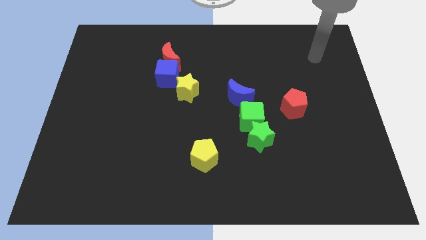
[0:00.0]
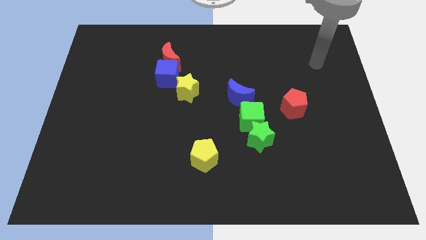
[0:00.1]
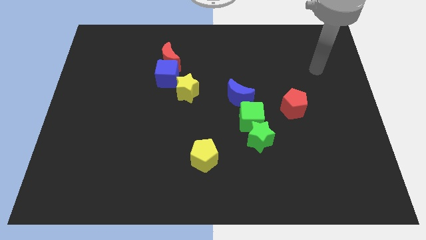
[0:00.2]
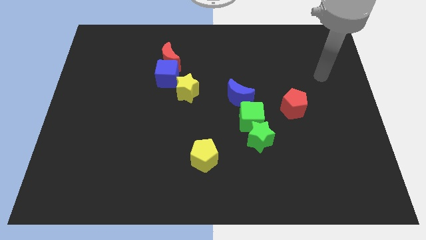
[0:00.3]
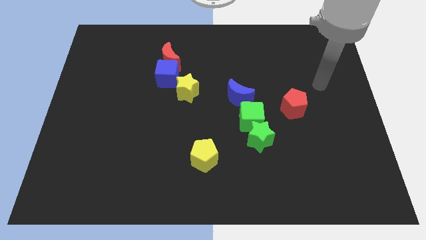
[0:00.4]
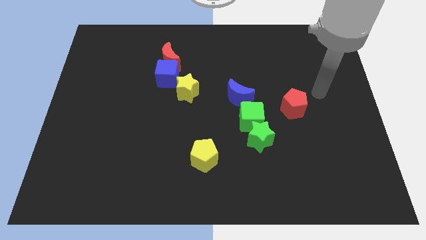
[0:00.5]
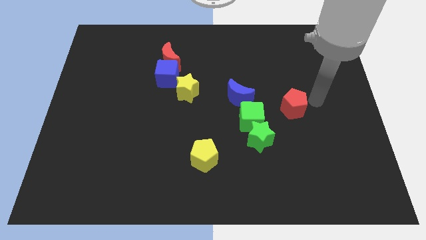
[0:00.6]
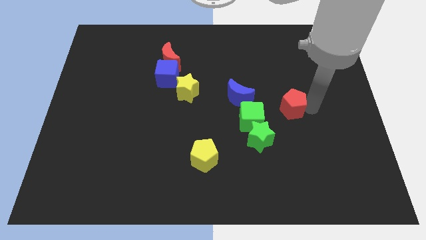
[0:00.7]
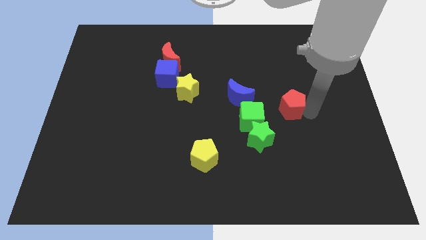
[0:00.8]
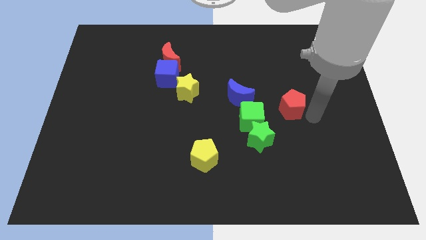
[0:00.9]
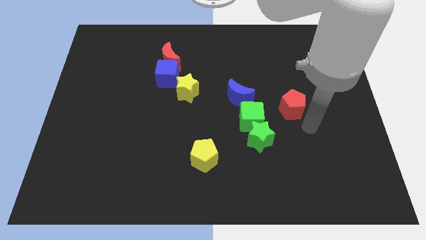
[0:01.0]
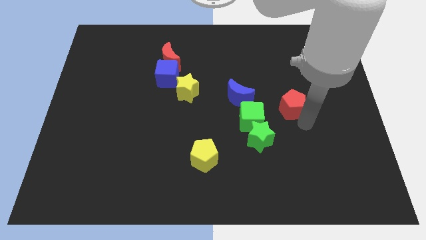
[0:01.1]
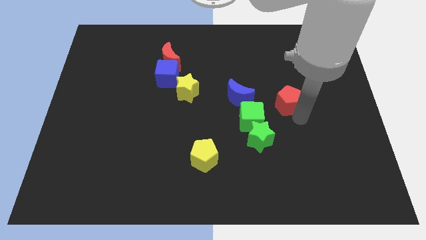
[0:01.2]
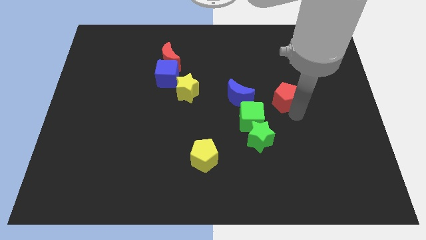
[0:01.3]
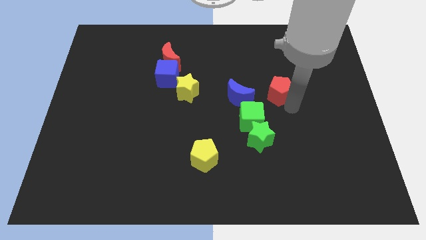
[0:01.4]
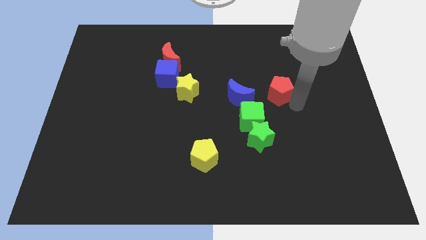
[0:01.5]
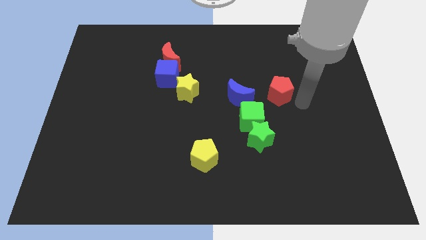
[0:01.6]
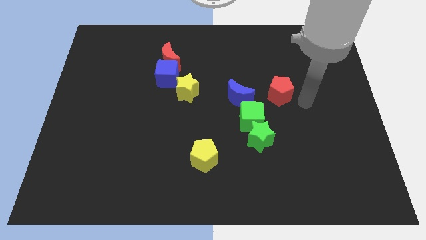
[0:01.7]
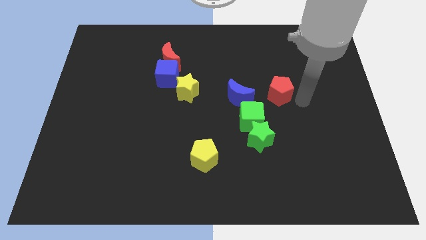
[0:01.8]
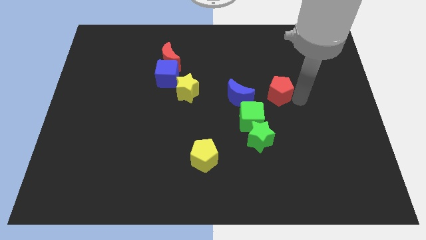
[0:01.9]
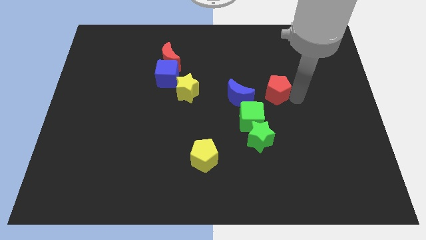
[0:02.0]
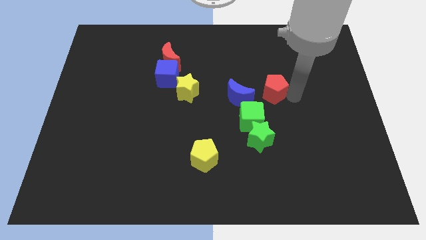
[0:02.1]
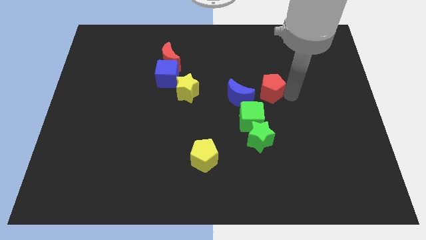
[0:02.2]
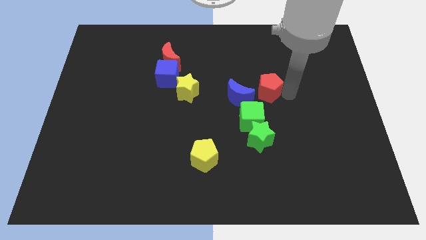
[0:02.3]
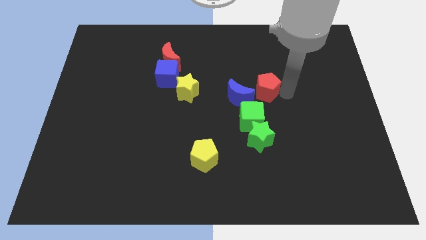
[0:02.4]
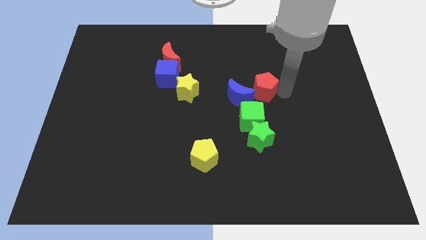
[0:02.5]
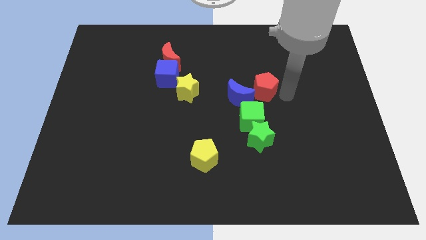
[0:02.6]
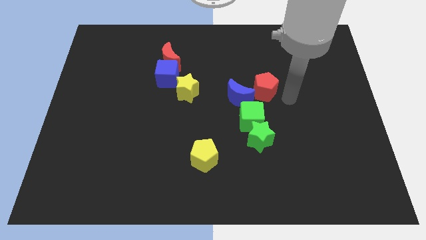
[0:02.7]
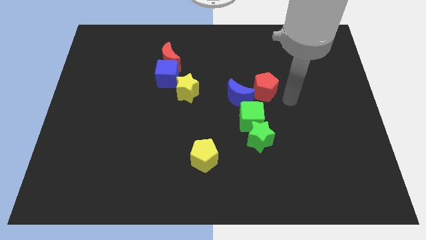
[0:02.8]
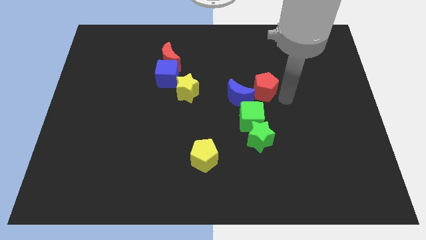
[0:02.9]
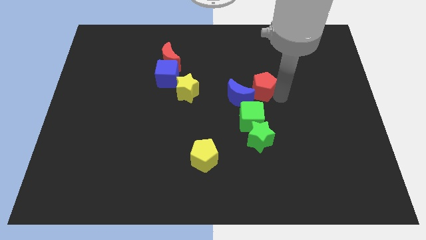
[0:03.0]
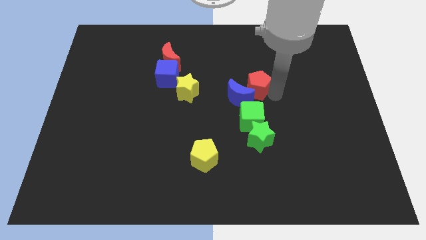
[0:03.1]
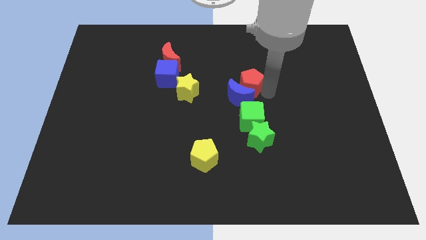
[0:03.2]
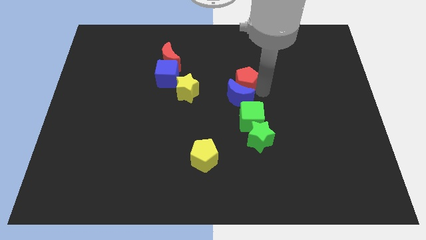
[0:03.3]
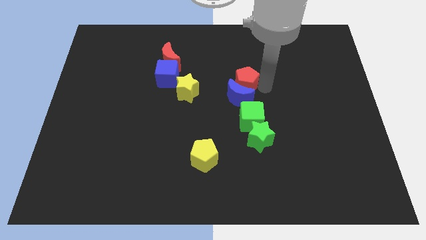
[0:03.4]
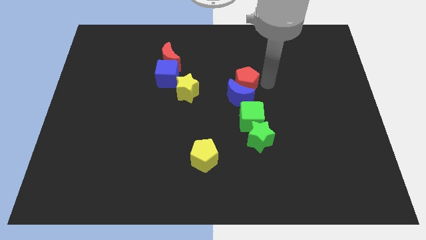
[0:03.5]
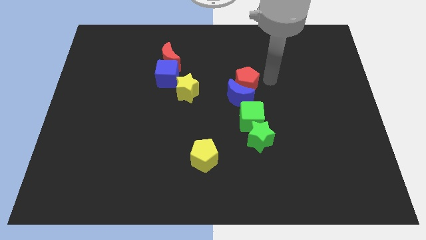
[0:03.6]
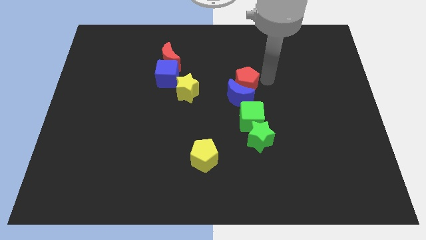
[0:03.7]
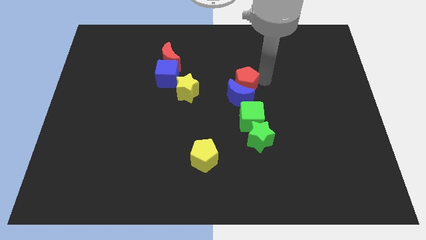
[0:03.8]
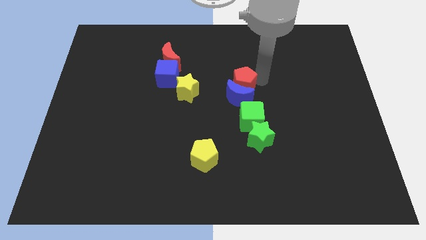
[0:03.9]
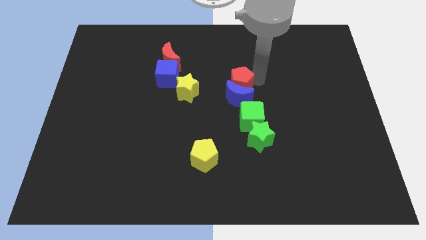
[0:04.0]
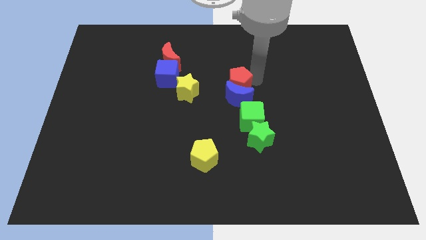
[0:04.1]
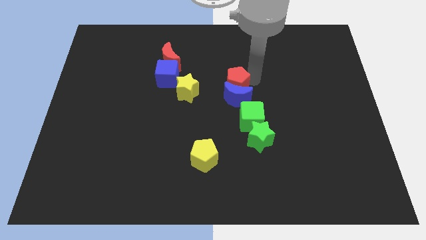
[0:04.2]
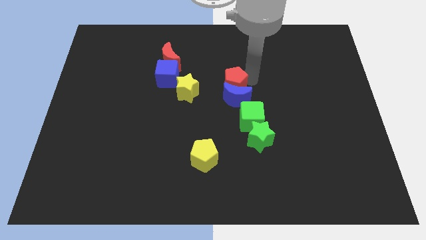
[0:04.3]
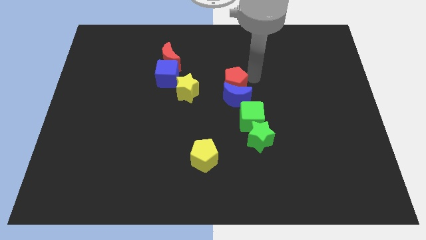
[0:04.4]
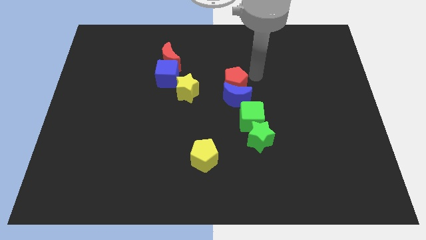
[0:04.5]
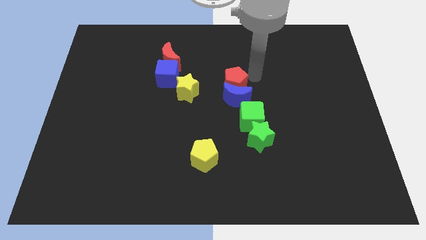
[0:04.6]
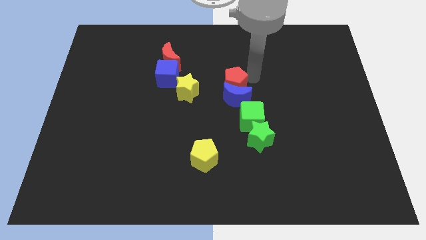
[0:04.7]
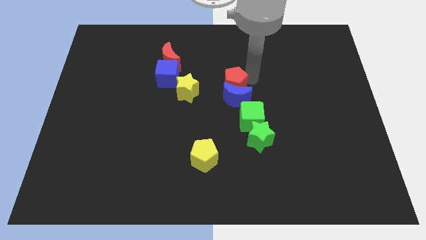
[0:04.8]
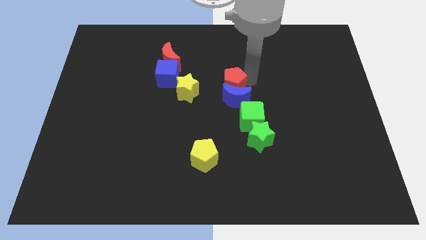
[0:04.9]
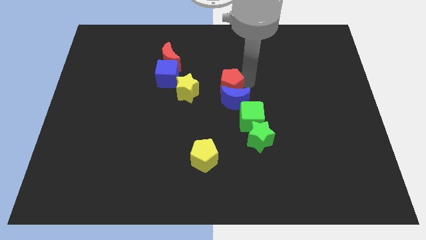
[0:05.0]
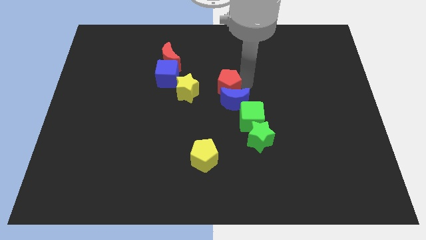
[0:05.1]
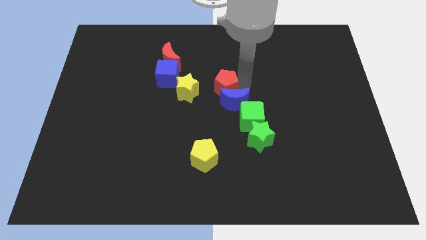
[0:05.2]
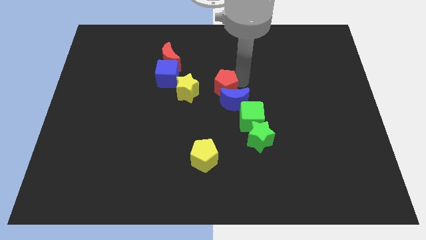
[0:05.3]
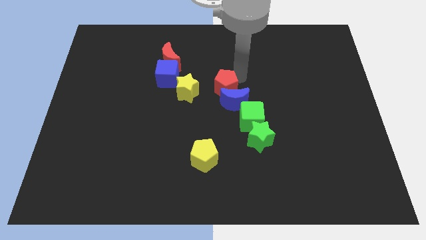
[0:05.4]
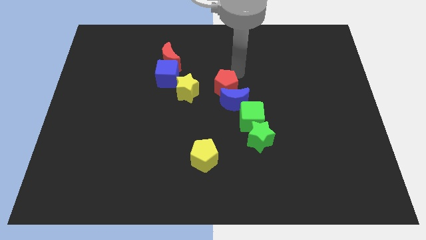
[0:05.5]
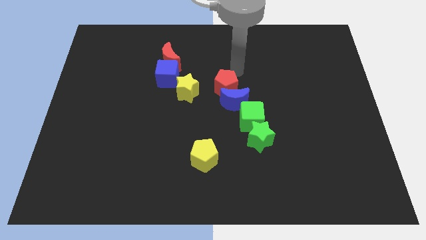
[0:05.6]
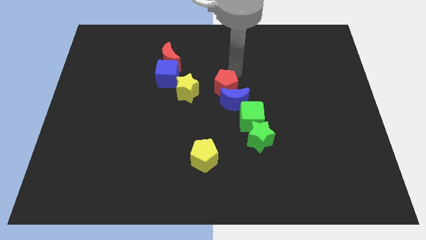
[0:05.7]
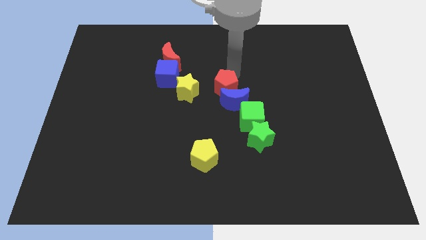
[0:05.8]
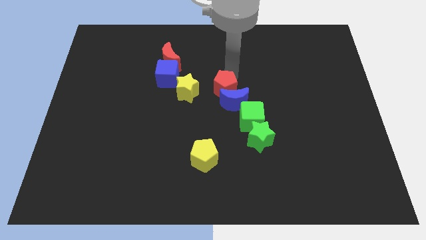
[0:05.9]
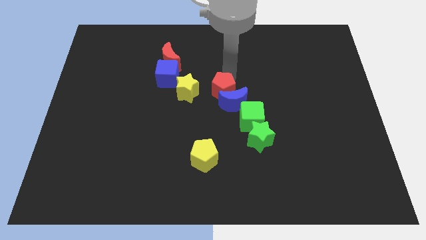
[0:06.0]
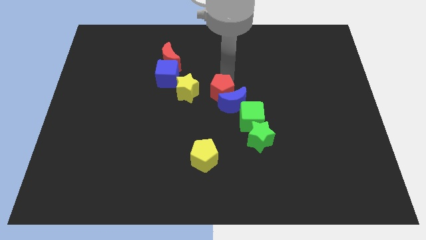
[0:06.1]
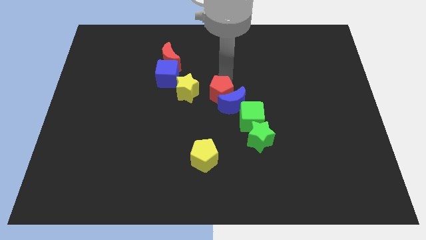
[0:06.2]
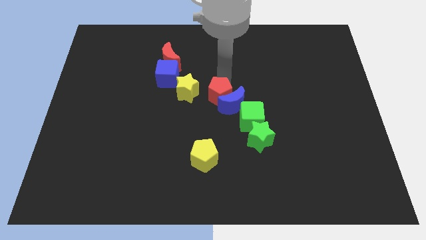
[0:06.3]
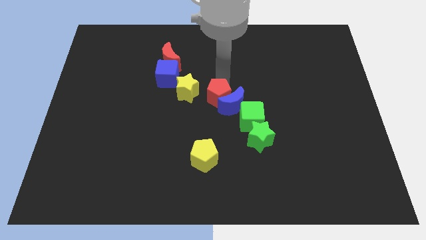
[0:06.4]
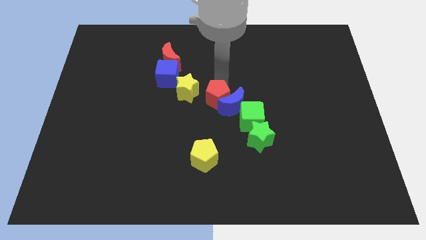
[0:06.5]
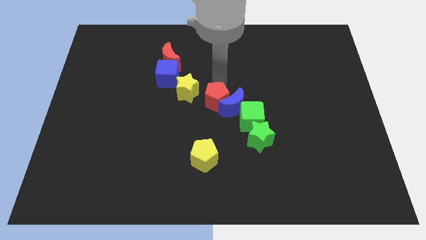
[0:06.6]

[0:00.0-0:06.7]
move the red pentagon to the top of the yellow pentagon

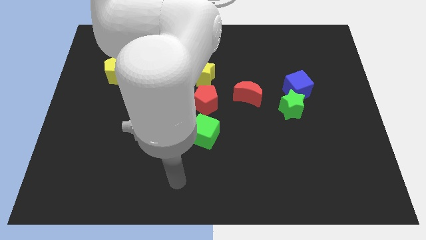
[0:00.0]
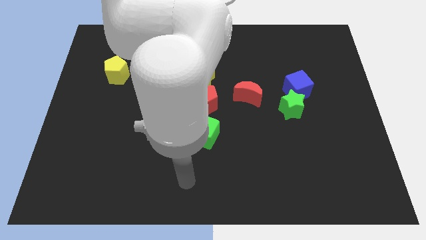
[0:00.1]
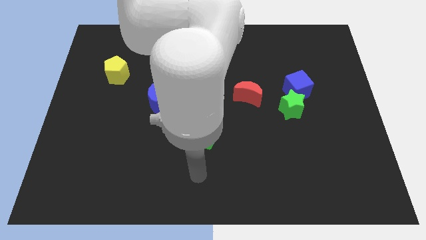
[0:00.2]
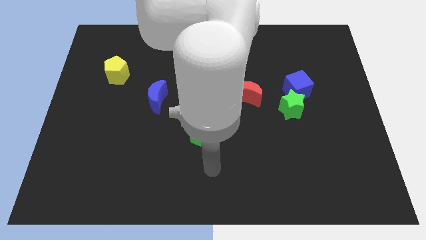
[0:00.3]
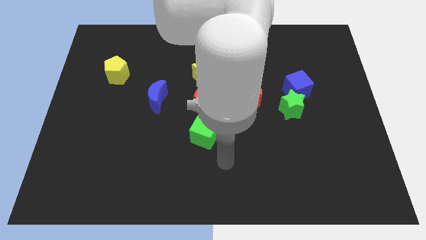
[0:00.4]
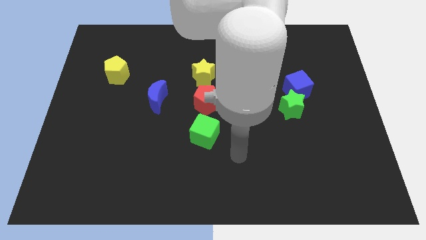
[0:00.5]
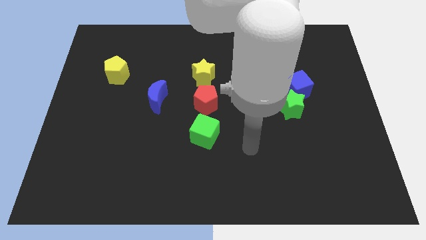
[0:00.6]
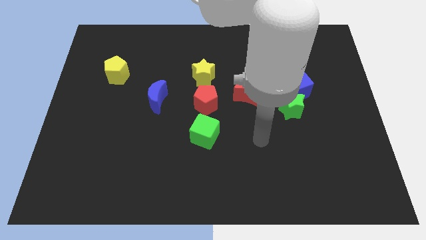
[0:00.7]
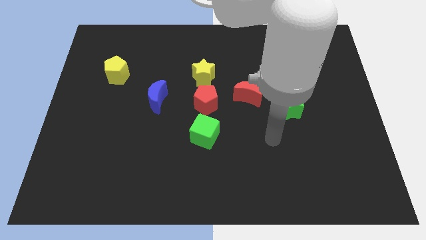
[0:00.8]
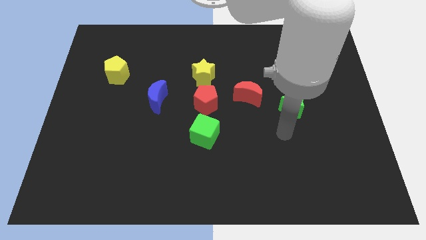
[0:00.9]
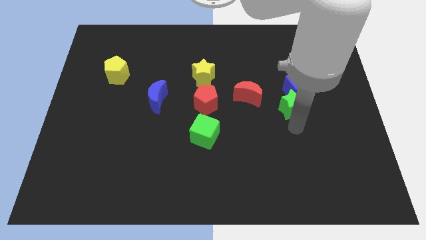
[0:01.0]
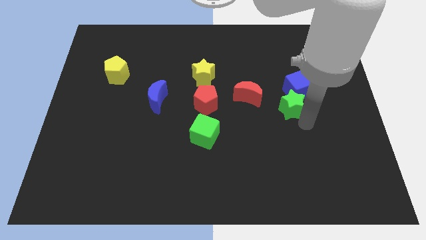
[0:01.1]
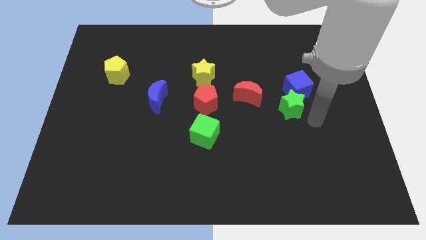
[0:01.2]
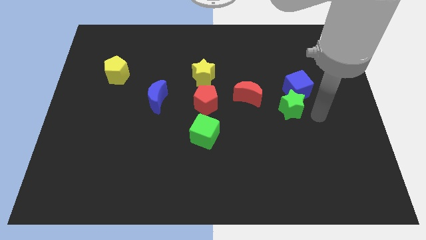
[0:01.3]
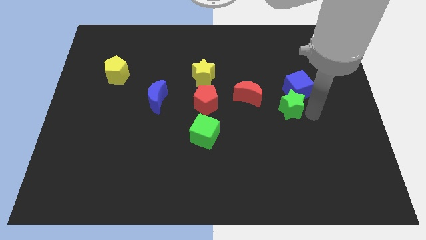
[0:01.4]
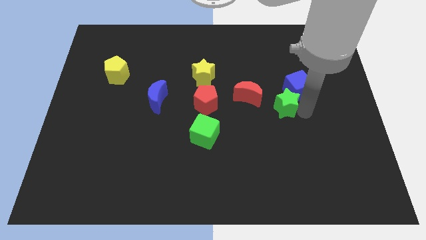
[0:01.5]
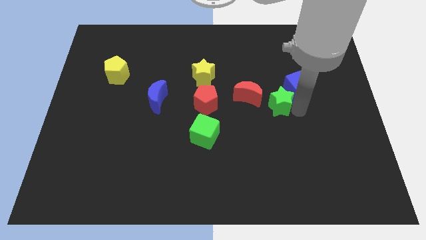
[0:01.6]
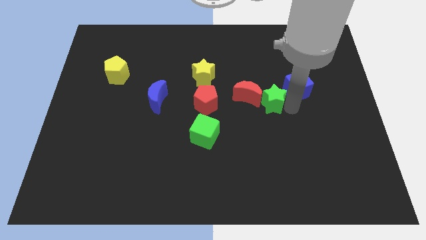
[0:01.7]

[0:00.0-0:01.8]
put the green star just right of the red pentagon
